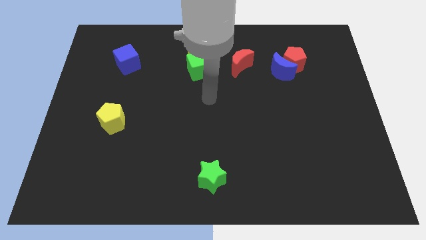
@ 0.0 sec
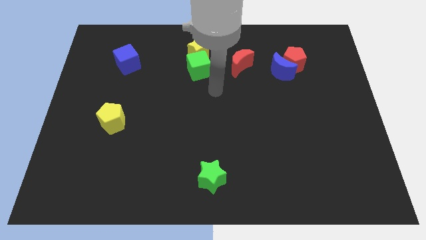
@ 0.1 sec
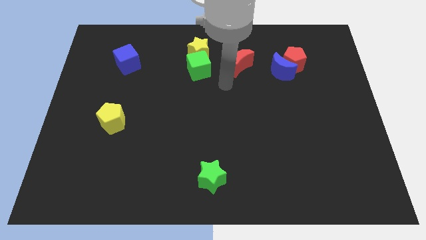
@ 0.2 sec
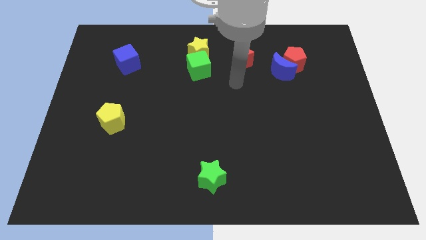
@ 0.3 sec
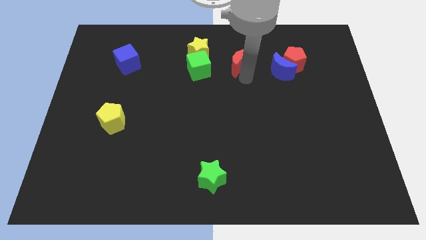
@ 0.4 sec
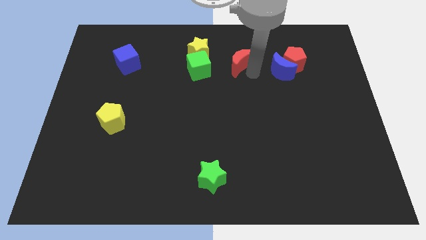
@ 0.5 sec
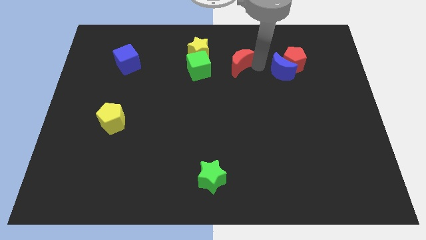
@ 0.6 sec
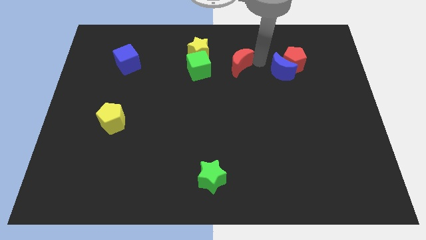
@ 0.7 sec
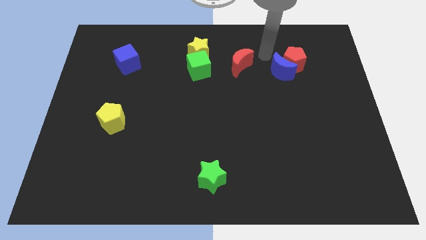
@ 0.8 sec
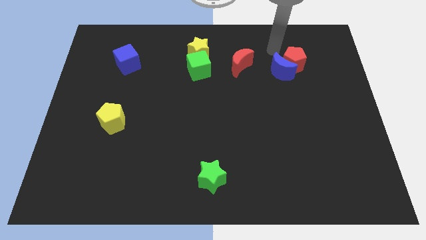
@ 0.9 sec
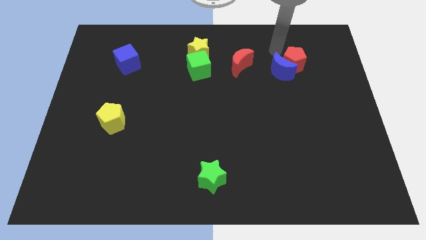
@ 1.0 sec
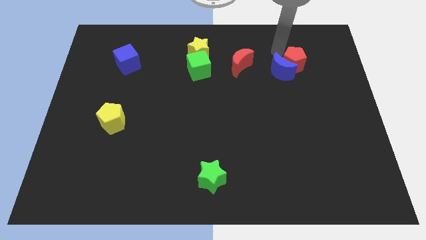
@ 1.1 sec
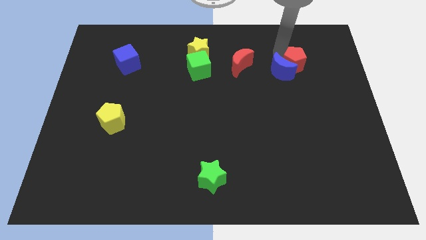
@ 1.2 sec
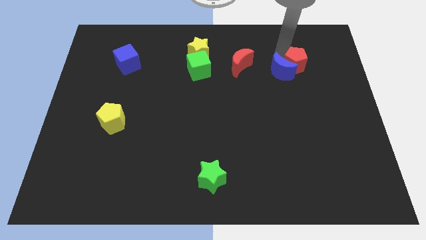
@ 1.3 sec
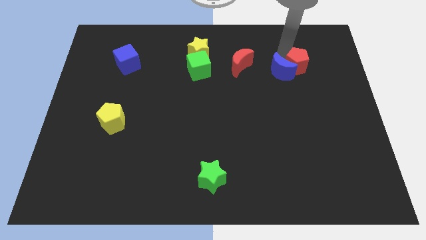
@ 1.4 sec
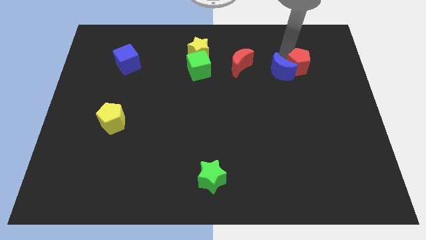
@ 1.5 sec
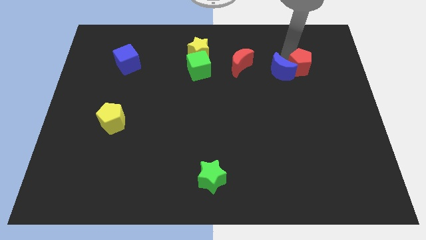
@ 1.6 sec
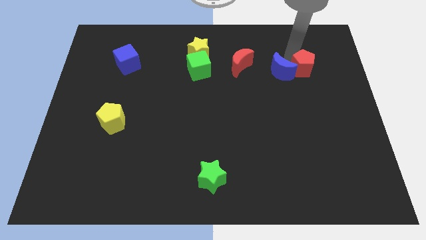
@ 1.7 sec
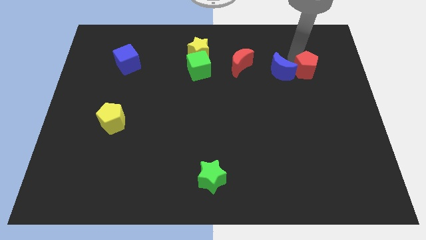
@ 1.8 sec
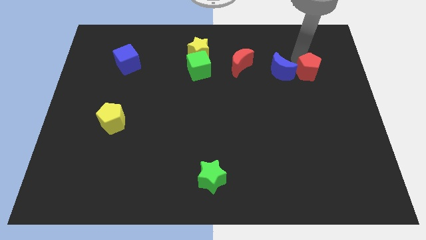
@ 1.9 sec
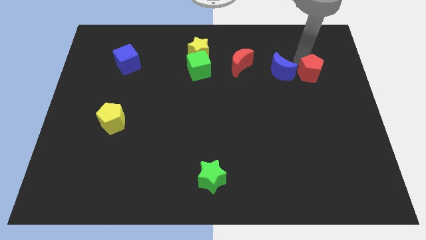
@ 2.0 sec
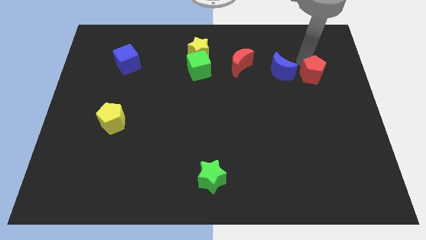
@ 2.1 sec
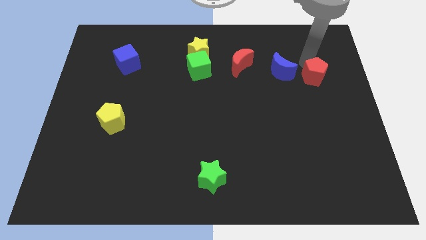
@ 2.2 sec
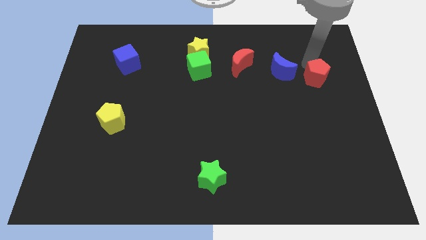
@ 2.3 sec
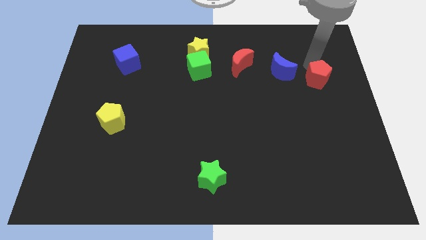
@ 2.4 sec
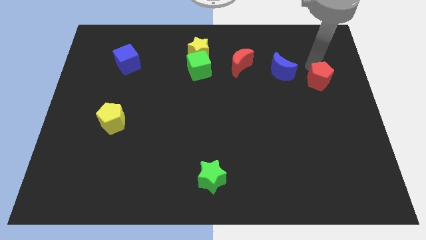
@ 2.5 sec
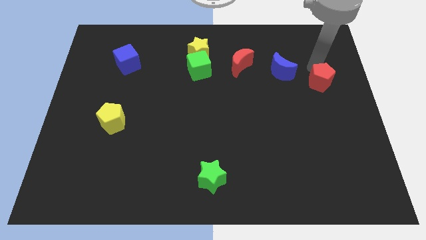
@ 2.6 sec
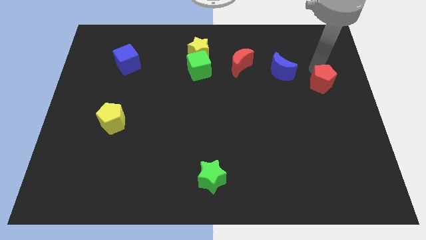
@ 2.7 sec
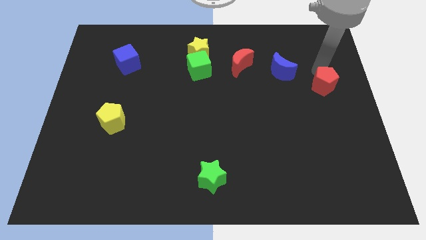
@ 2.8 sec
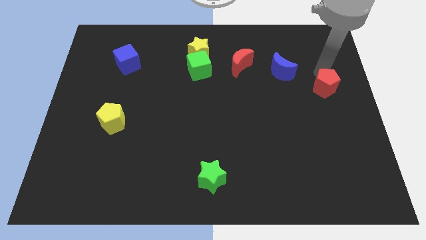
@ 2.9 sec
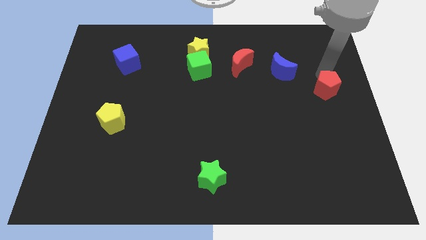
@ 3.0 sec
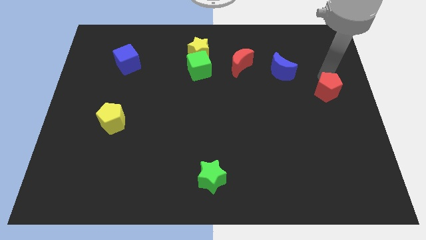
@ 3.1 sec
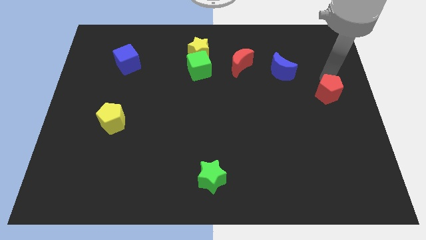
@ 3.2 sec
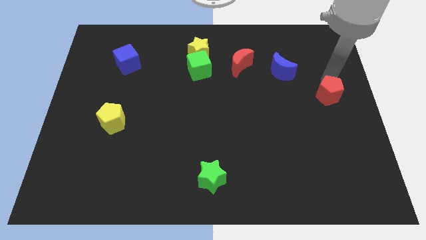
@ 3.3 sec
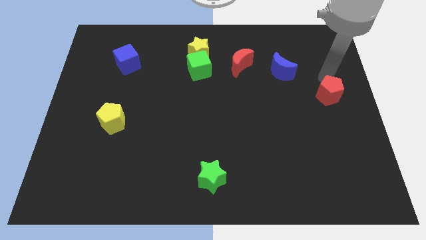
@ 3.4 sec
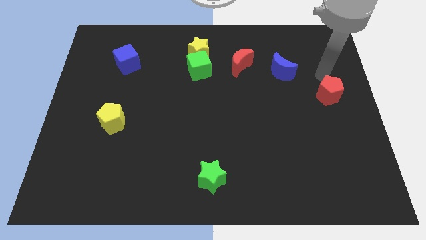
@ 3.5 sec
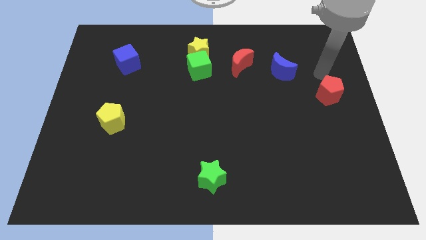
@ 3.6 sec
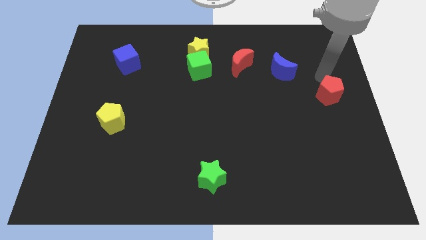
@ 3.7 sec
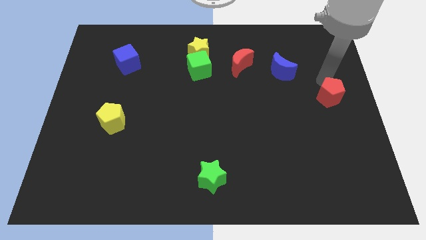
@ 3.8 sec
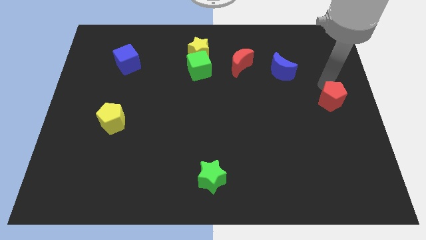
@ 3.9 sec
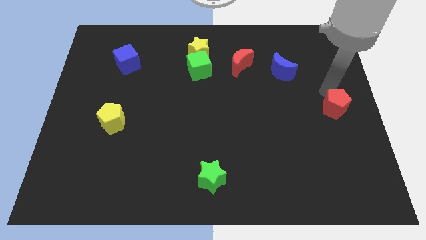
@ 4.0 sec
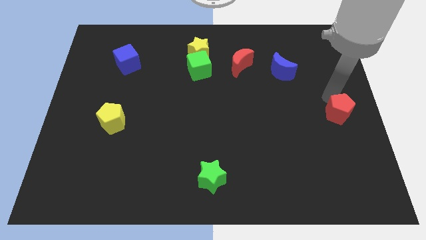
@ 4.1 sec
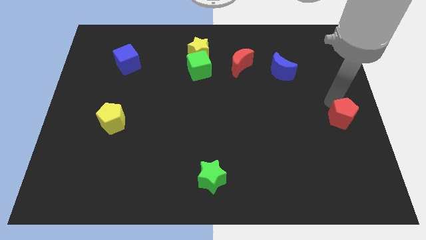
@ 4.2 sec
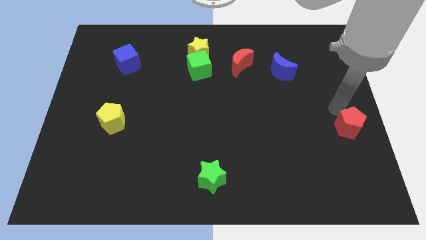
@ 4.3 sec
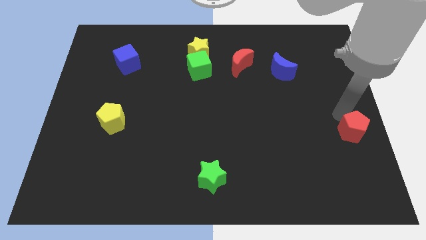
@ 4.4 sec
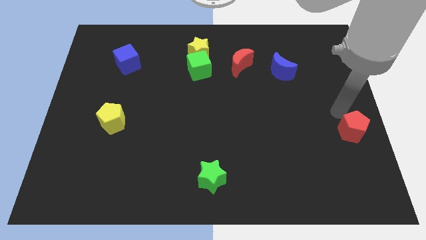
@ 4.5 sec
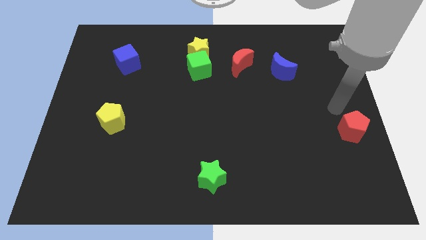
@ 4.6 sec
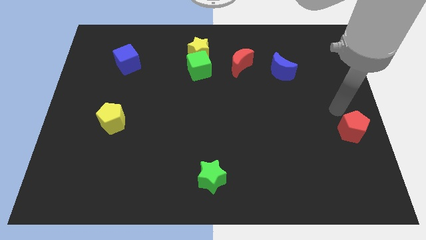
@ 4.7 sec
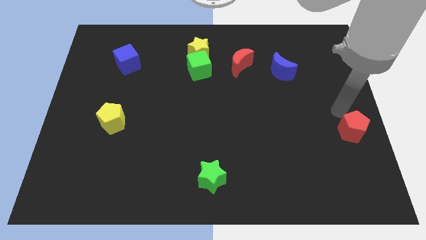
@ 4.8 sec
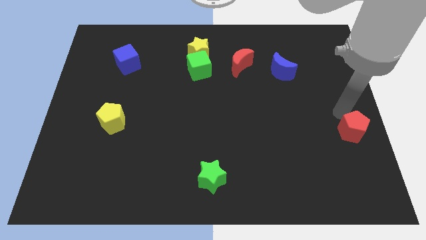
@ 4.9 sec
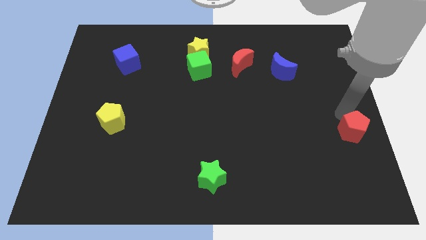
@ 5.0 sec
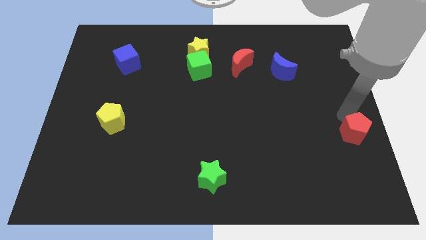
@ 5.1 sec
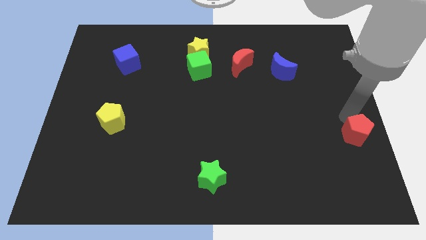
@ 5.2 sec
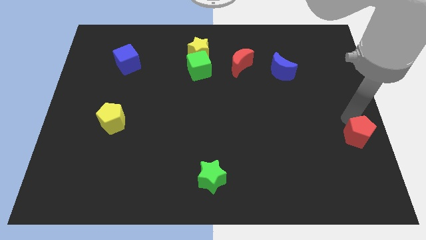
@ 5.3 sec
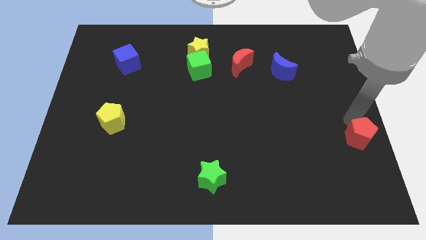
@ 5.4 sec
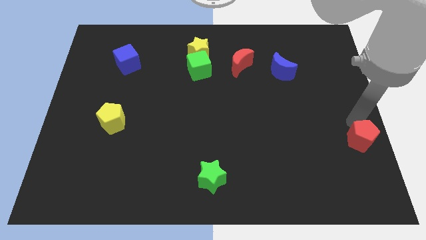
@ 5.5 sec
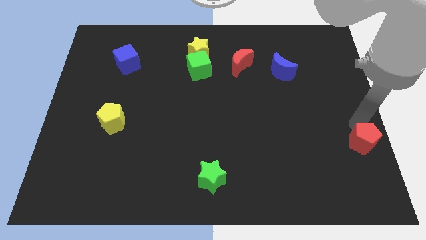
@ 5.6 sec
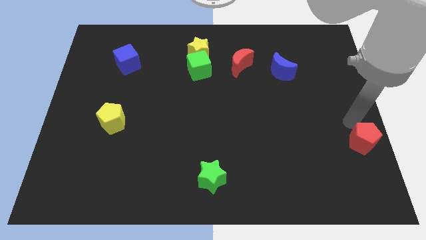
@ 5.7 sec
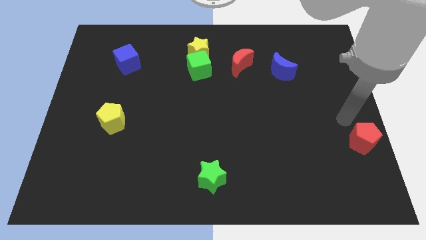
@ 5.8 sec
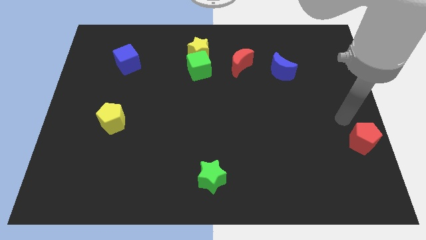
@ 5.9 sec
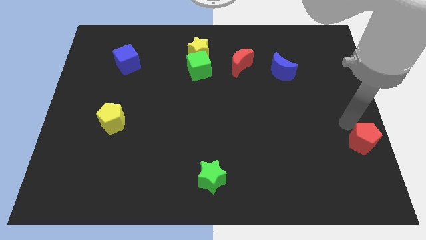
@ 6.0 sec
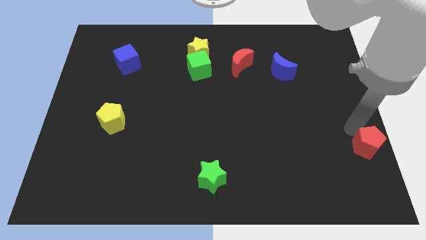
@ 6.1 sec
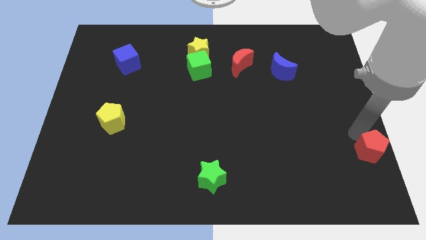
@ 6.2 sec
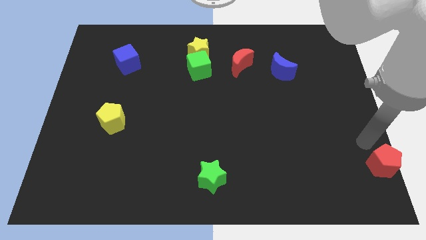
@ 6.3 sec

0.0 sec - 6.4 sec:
slide the red pentagon to the bottom right of the board
